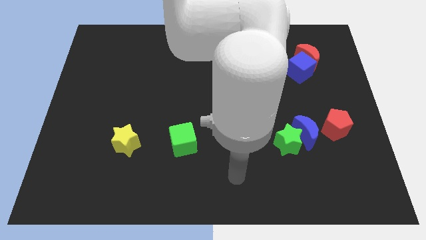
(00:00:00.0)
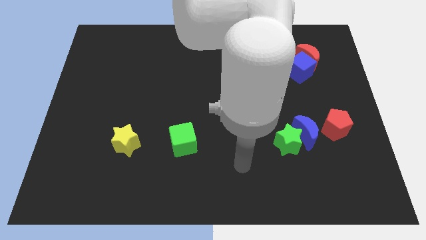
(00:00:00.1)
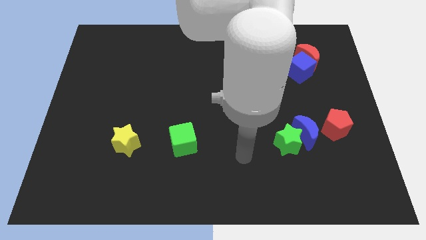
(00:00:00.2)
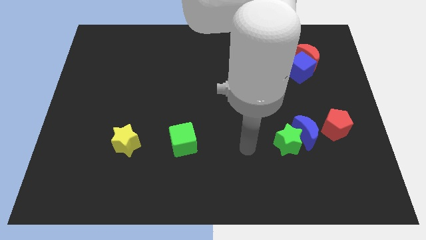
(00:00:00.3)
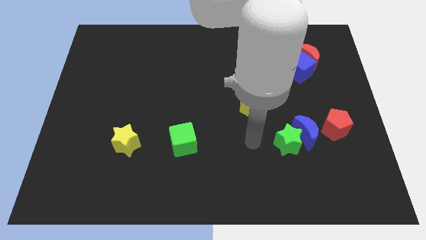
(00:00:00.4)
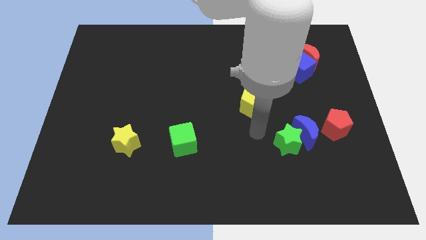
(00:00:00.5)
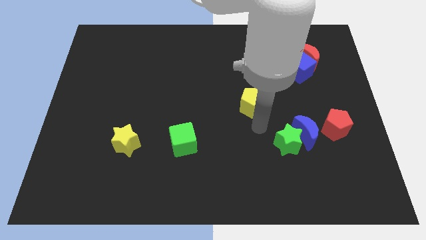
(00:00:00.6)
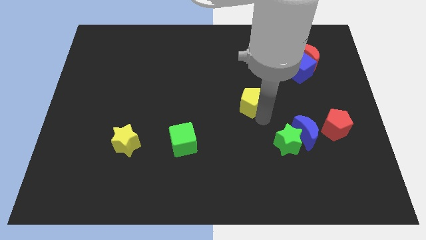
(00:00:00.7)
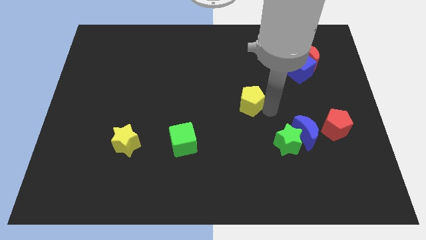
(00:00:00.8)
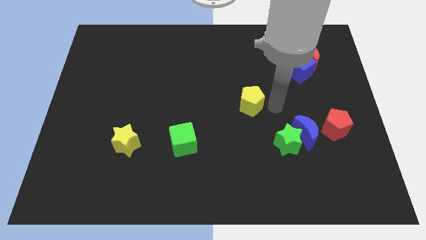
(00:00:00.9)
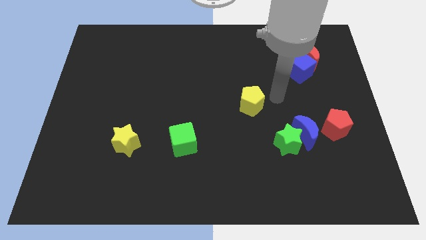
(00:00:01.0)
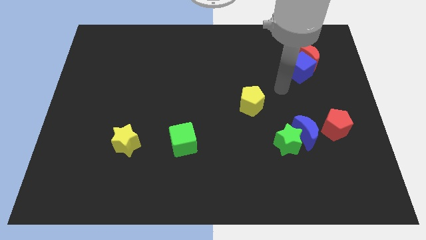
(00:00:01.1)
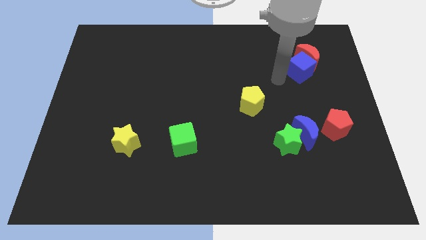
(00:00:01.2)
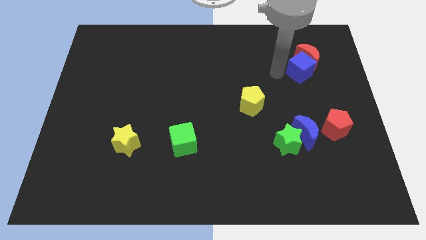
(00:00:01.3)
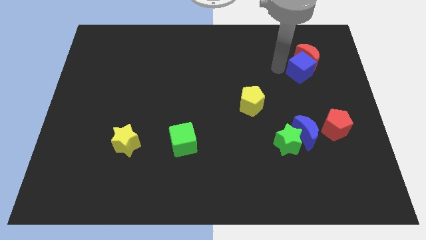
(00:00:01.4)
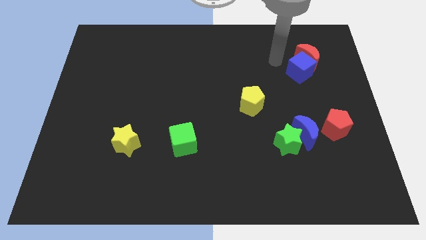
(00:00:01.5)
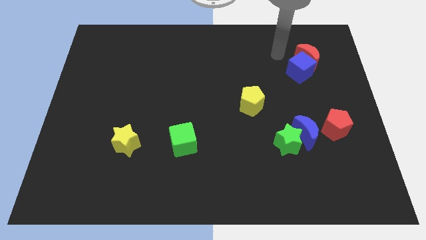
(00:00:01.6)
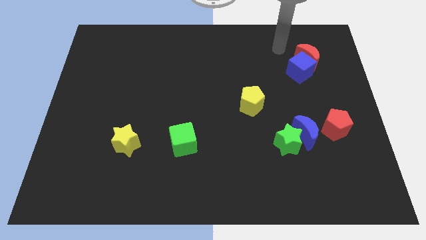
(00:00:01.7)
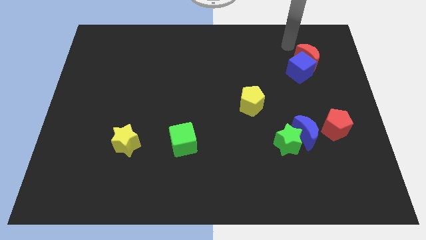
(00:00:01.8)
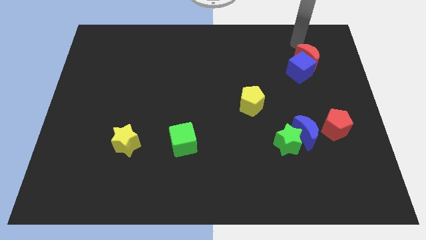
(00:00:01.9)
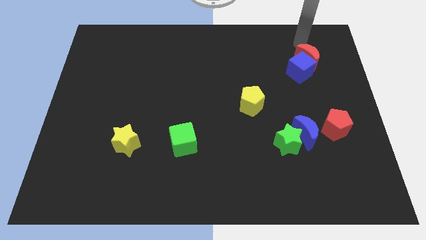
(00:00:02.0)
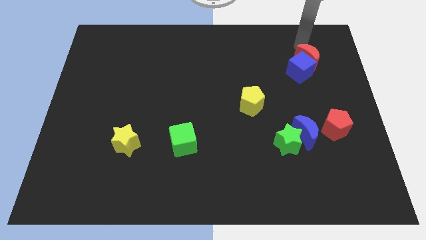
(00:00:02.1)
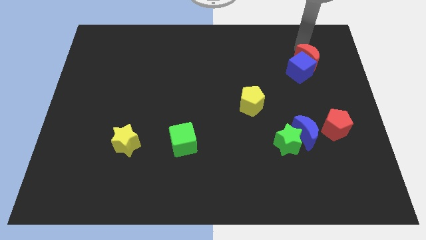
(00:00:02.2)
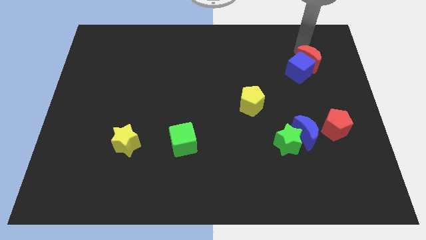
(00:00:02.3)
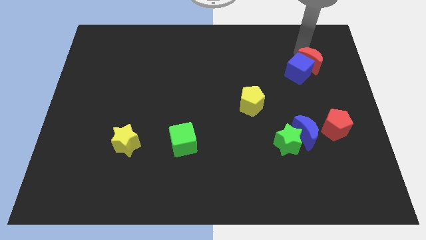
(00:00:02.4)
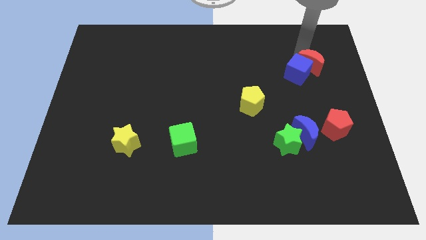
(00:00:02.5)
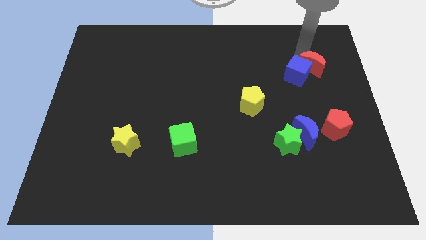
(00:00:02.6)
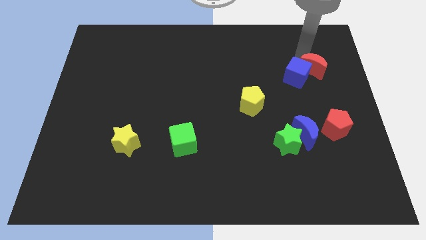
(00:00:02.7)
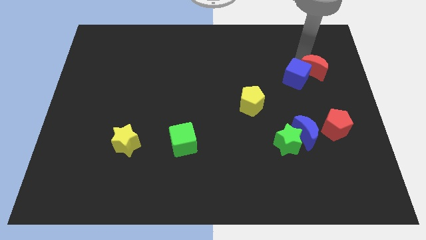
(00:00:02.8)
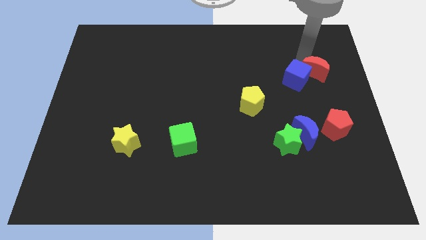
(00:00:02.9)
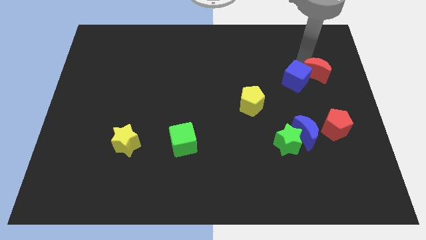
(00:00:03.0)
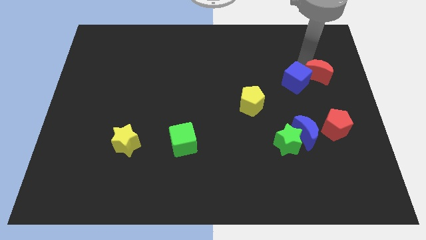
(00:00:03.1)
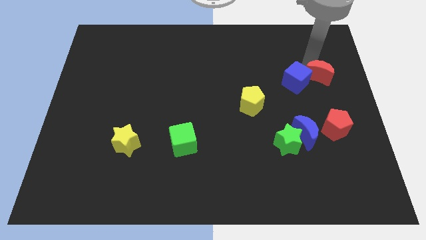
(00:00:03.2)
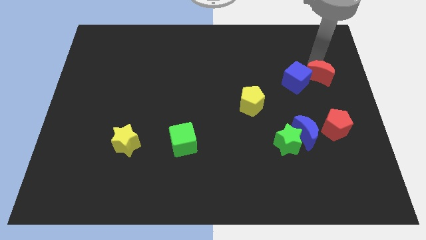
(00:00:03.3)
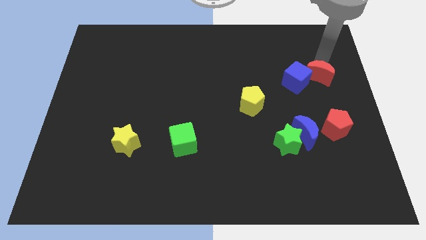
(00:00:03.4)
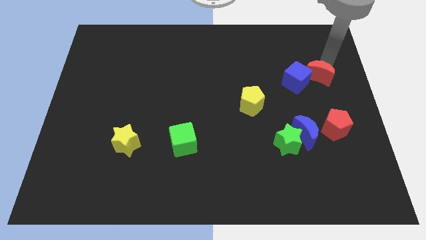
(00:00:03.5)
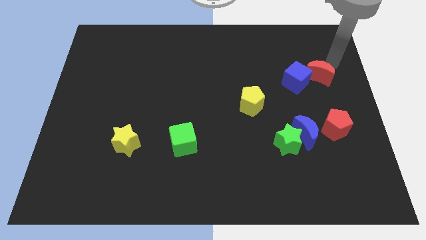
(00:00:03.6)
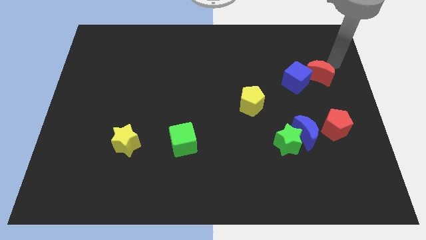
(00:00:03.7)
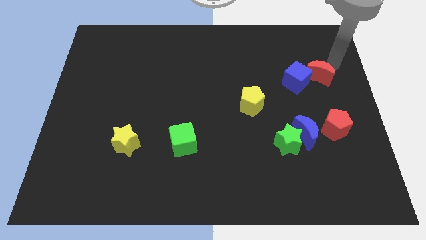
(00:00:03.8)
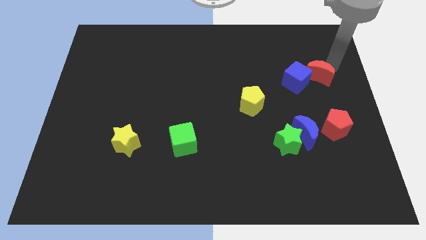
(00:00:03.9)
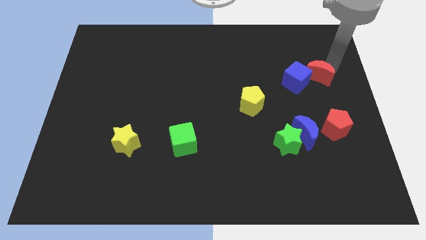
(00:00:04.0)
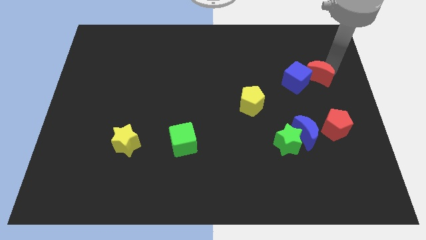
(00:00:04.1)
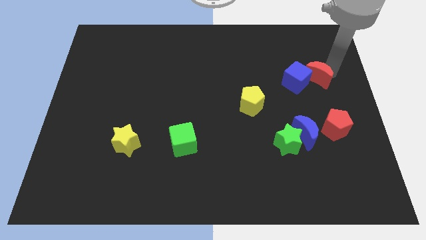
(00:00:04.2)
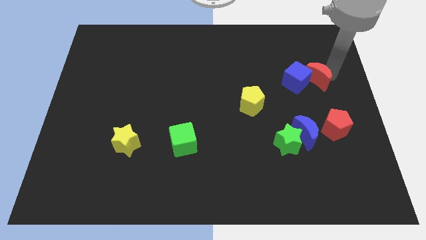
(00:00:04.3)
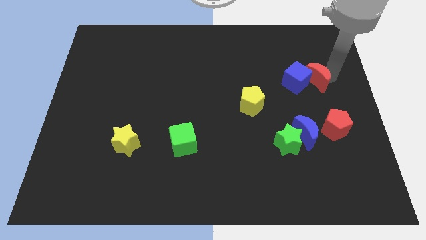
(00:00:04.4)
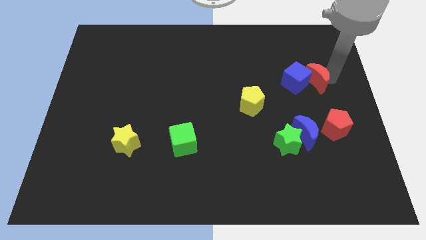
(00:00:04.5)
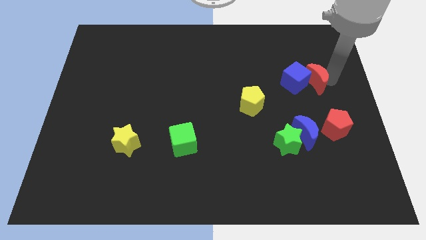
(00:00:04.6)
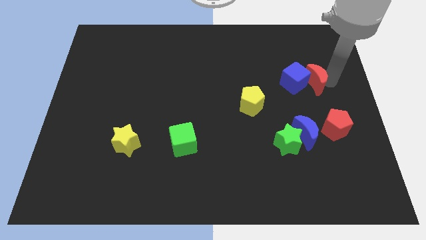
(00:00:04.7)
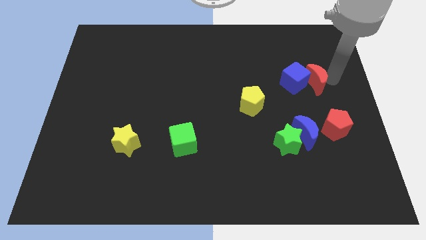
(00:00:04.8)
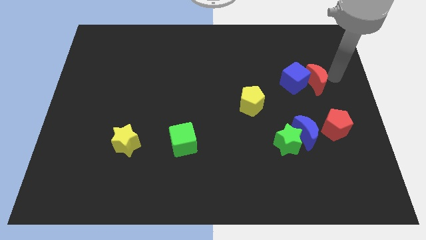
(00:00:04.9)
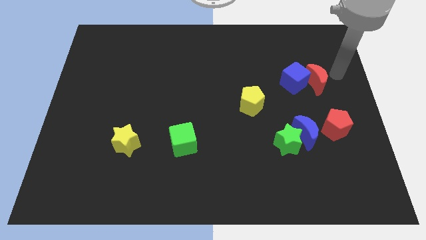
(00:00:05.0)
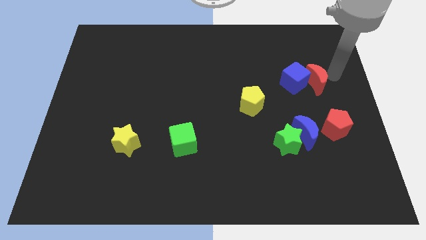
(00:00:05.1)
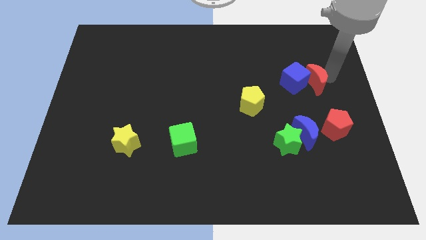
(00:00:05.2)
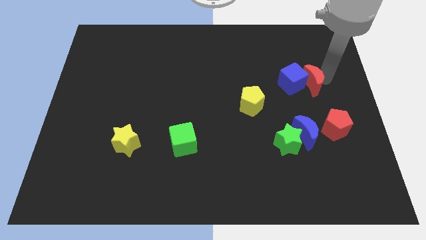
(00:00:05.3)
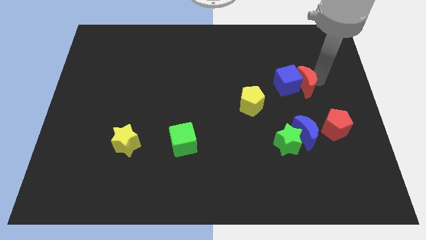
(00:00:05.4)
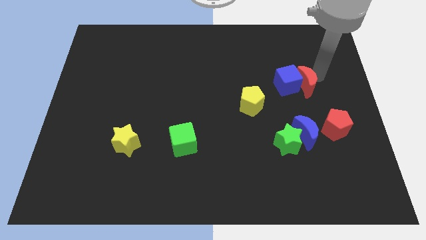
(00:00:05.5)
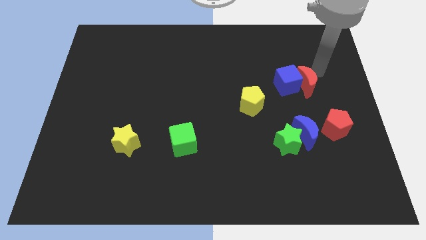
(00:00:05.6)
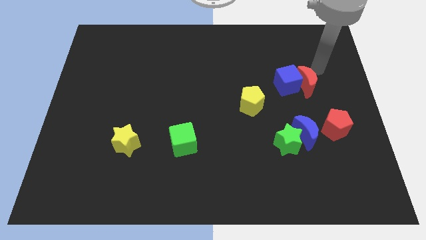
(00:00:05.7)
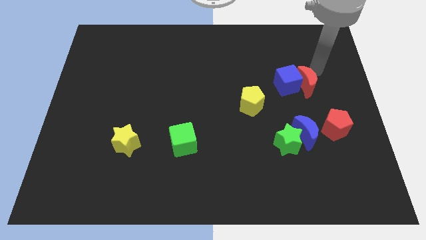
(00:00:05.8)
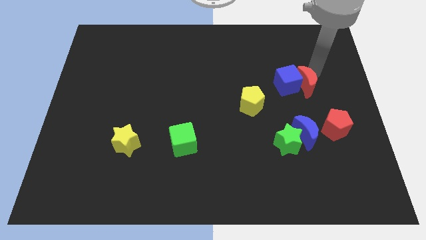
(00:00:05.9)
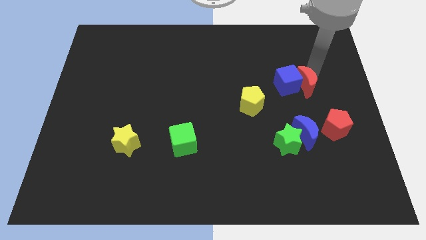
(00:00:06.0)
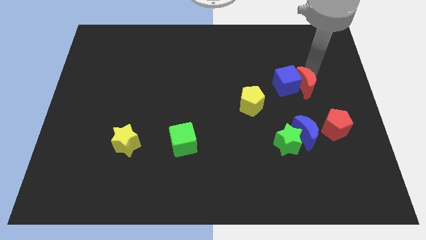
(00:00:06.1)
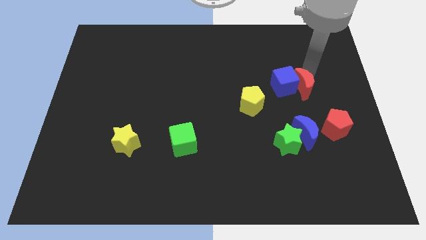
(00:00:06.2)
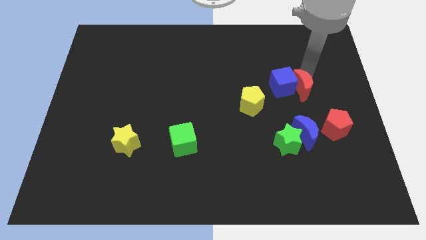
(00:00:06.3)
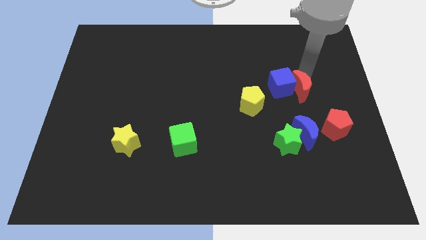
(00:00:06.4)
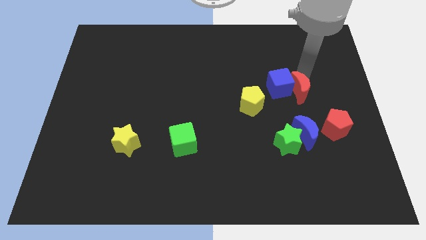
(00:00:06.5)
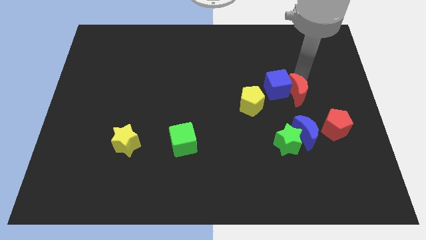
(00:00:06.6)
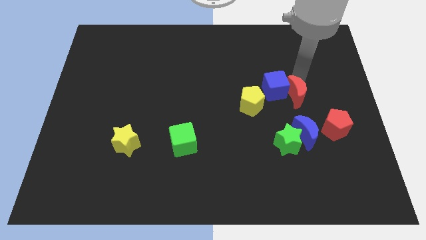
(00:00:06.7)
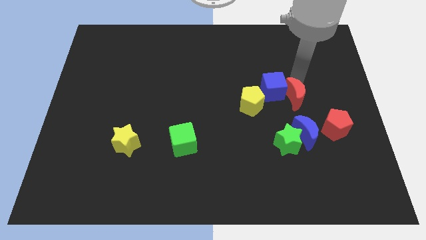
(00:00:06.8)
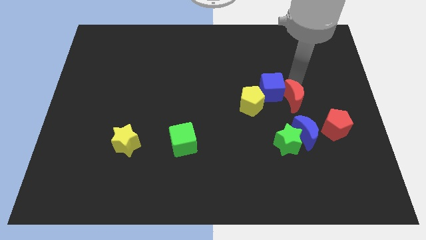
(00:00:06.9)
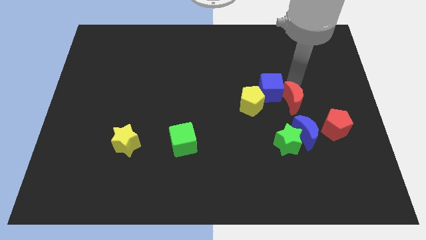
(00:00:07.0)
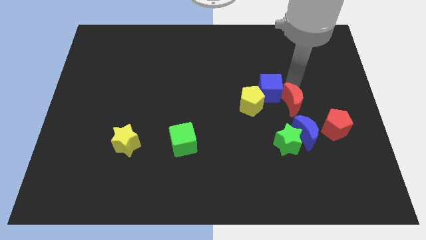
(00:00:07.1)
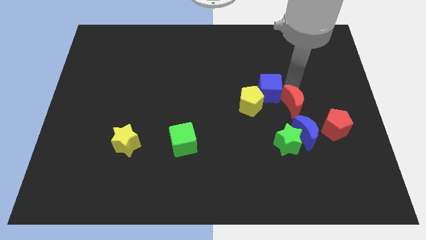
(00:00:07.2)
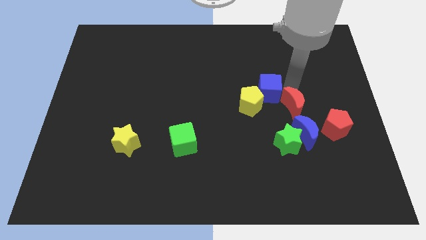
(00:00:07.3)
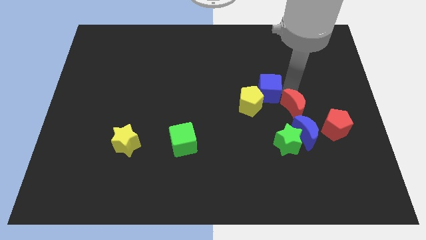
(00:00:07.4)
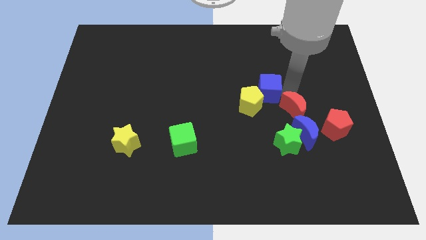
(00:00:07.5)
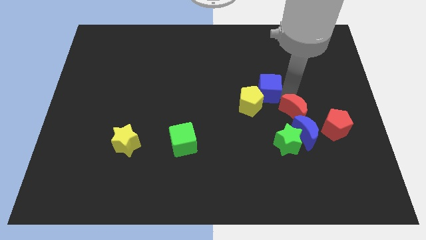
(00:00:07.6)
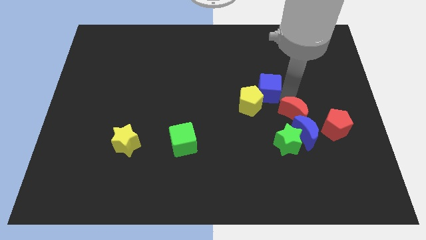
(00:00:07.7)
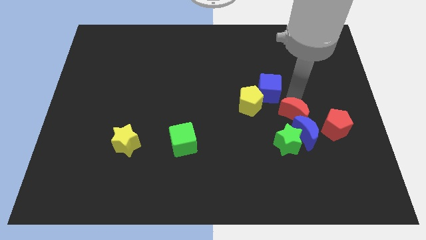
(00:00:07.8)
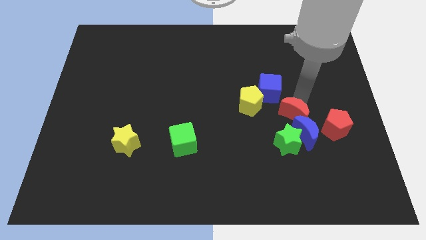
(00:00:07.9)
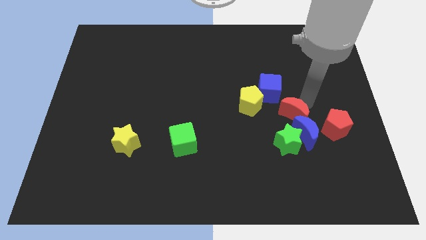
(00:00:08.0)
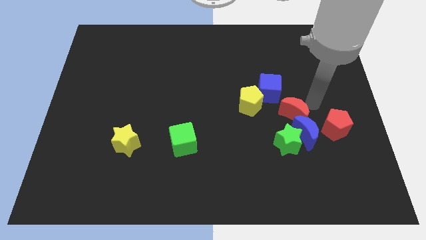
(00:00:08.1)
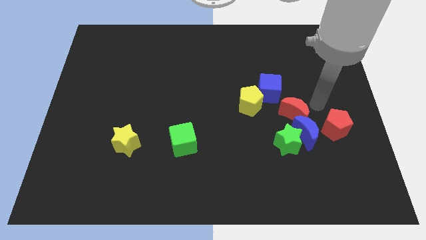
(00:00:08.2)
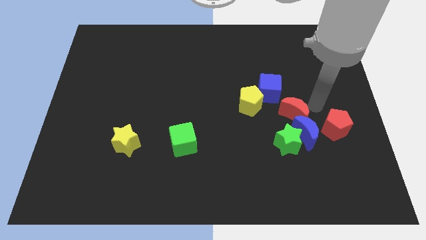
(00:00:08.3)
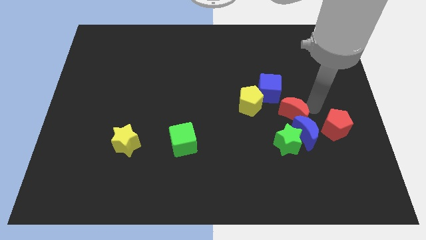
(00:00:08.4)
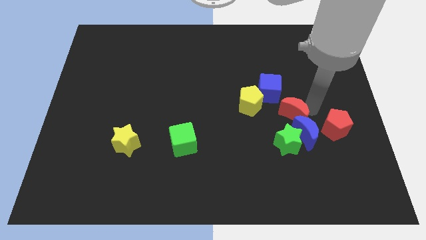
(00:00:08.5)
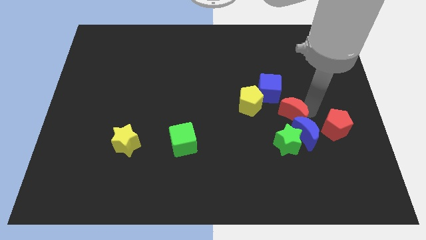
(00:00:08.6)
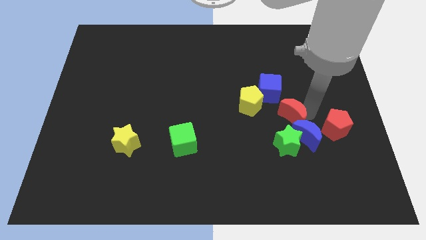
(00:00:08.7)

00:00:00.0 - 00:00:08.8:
put the red moon diagonally down and to the right of the yellow pentagon
